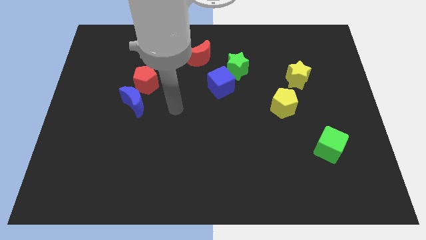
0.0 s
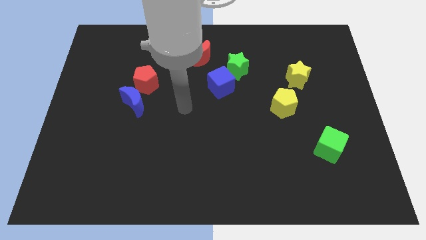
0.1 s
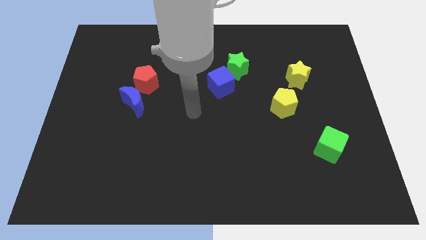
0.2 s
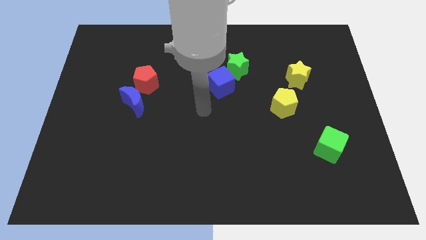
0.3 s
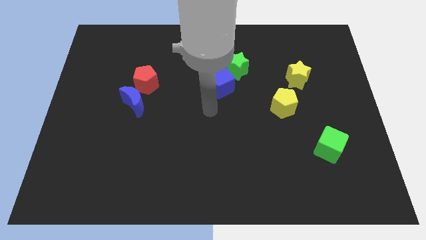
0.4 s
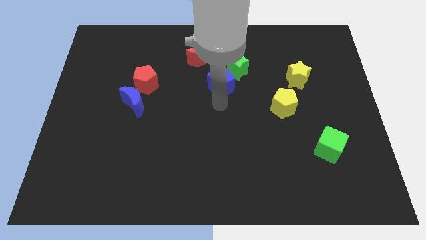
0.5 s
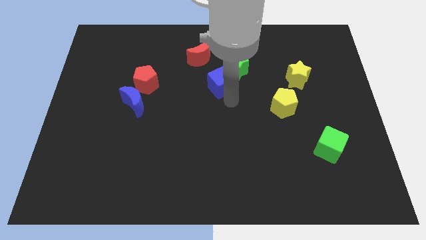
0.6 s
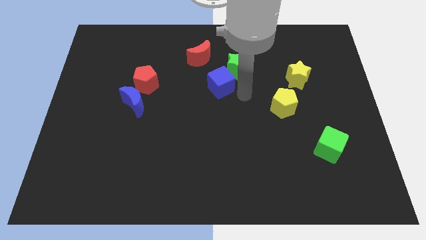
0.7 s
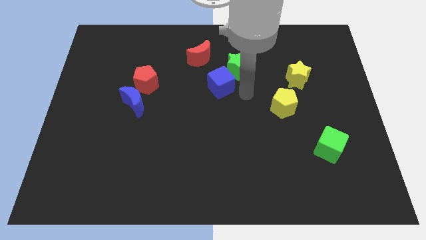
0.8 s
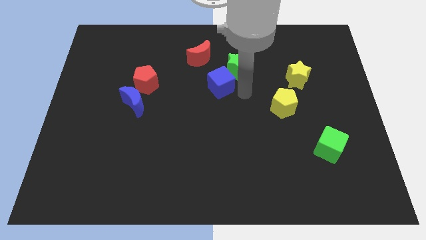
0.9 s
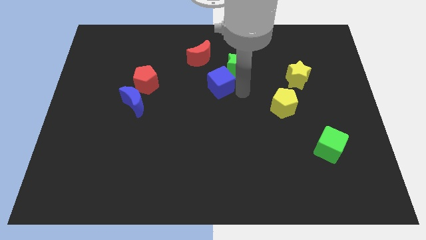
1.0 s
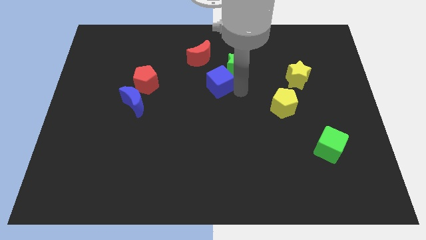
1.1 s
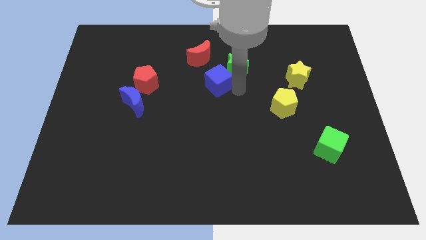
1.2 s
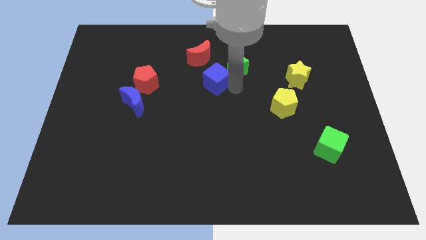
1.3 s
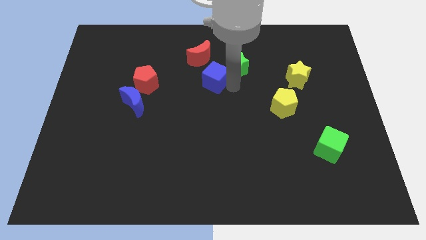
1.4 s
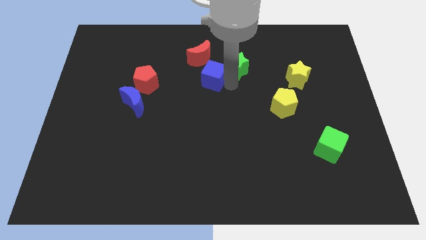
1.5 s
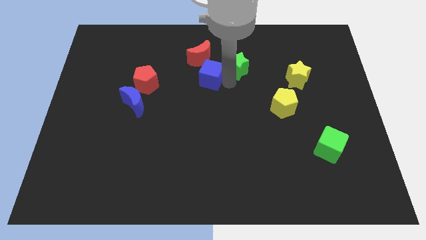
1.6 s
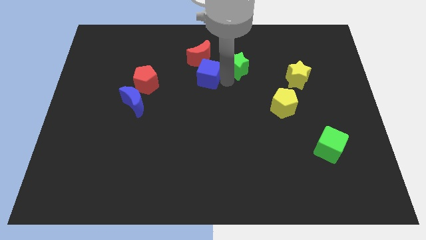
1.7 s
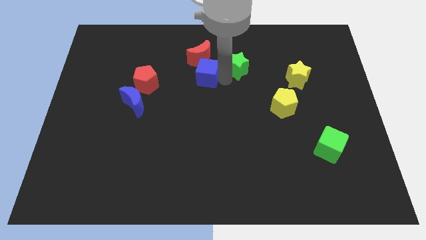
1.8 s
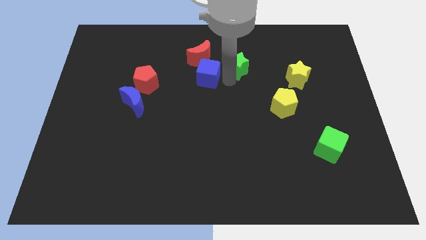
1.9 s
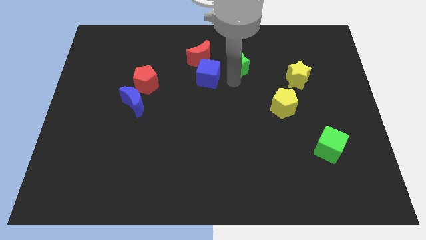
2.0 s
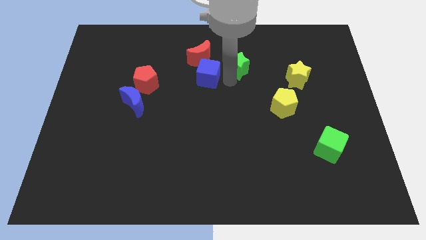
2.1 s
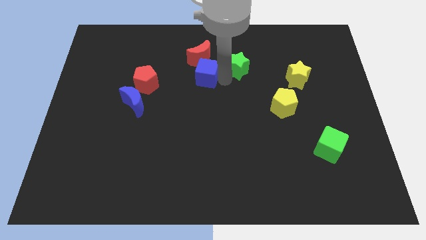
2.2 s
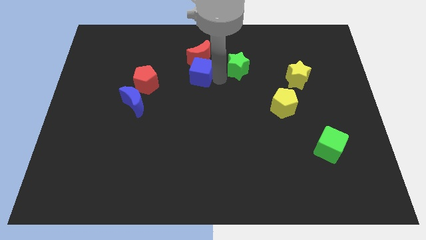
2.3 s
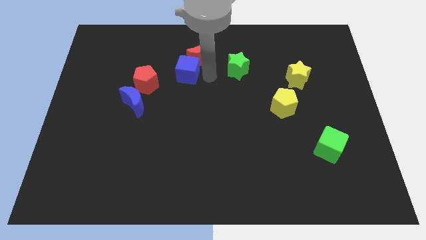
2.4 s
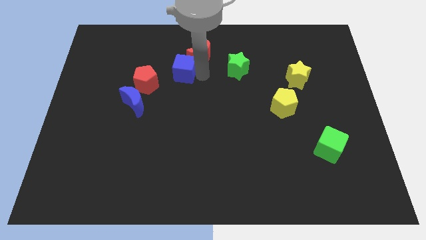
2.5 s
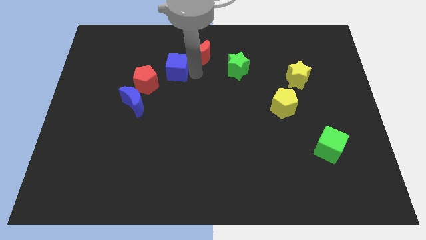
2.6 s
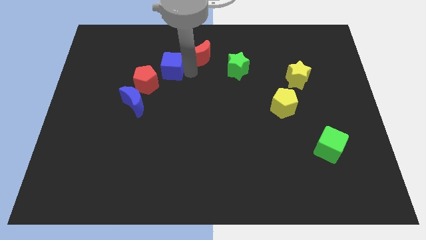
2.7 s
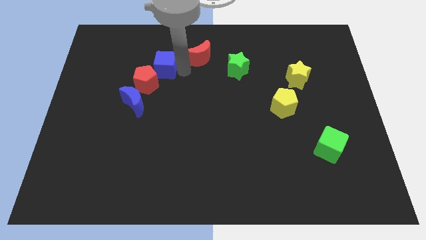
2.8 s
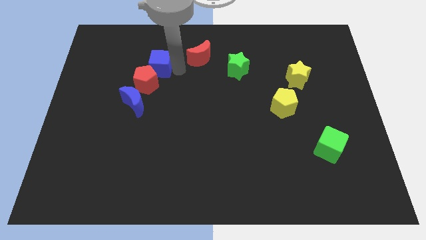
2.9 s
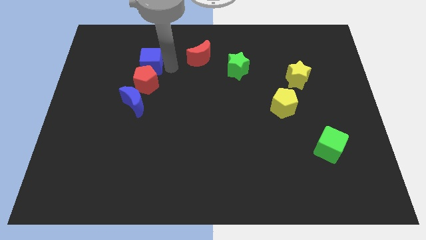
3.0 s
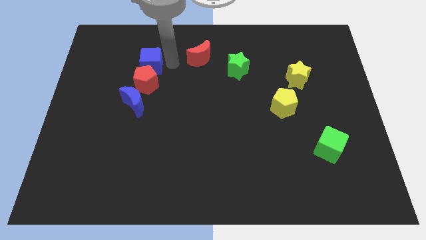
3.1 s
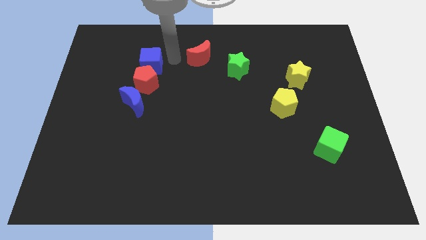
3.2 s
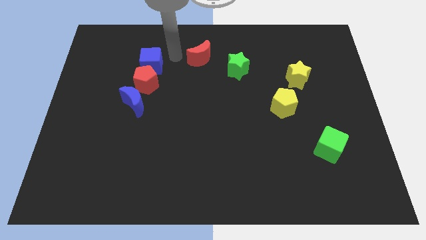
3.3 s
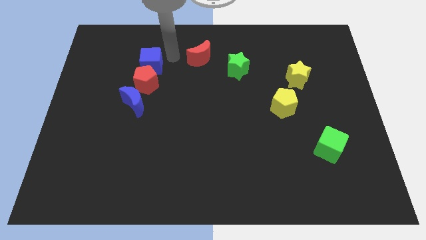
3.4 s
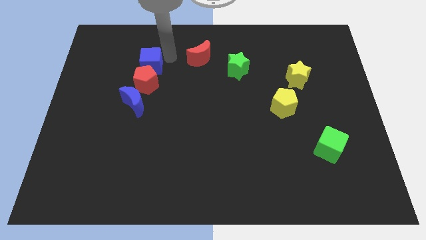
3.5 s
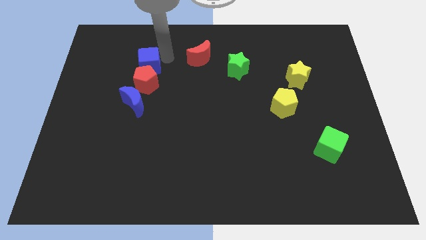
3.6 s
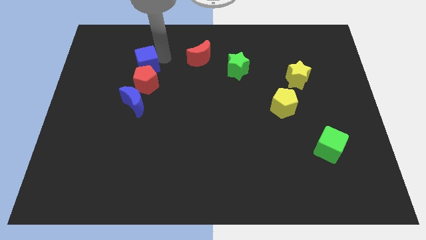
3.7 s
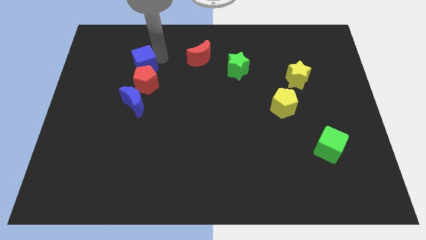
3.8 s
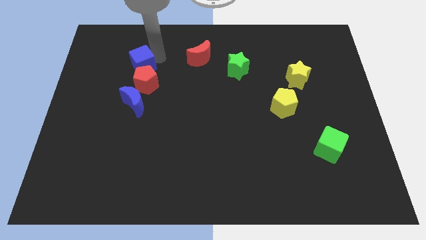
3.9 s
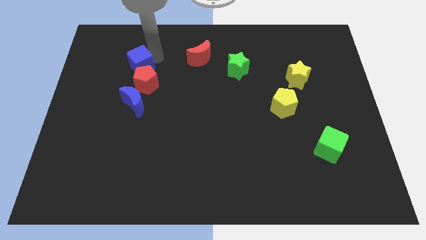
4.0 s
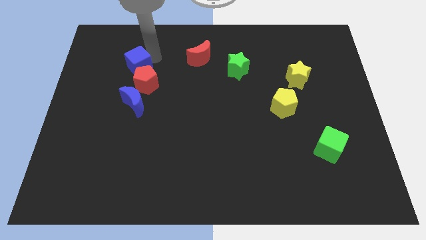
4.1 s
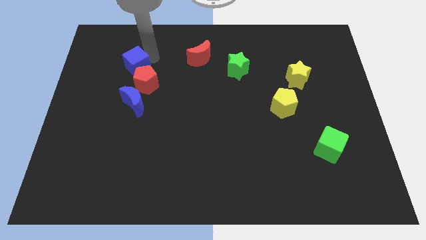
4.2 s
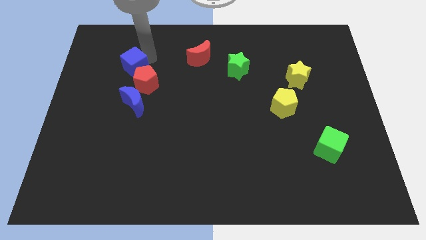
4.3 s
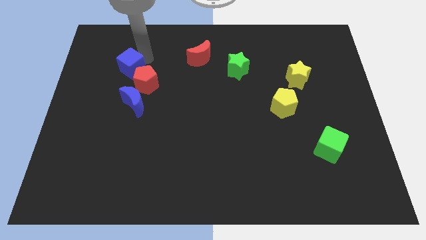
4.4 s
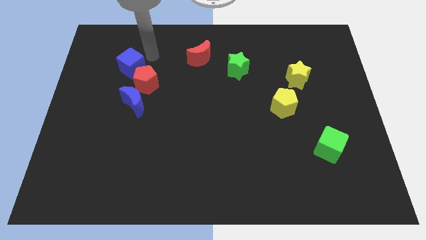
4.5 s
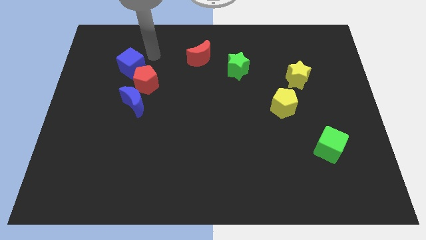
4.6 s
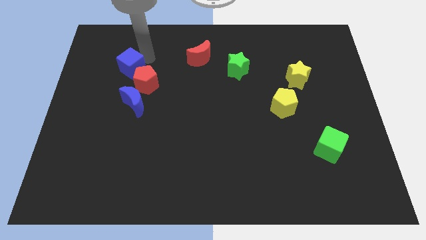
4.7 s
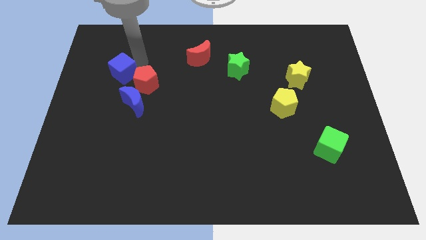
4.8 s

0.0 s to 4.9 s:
move the blue cube to the left side of the red pentagon

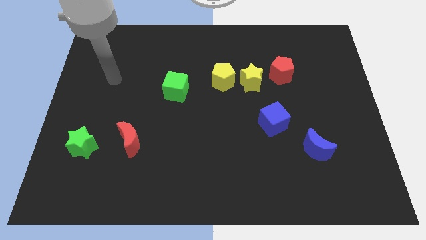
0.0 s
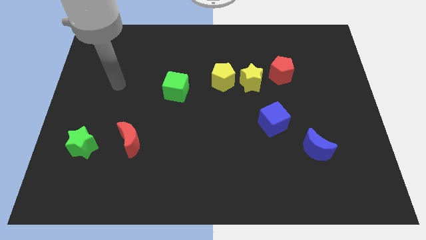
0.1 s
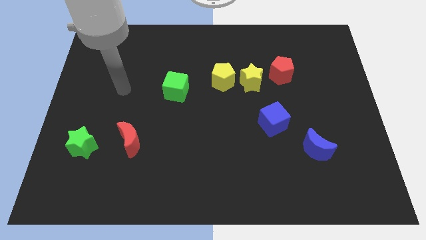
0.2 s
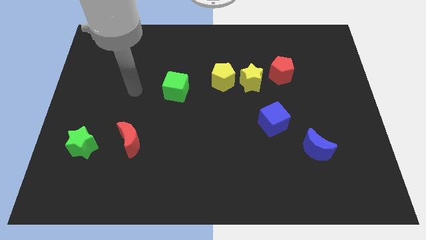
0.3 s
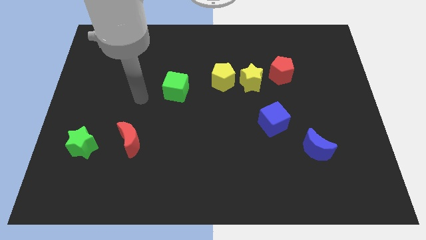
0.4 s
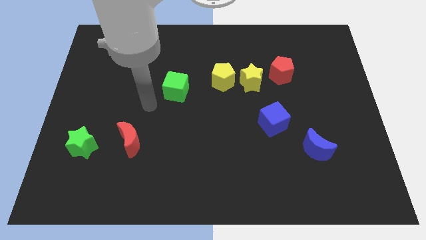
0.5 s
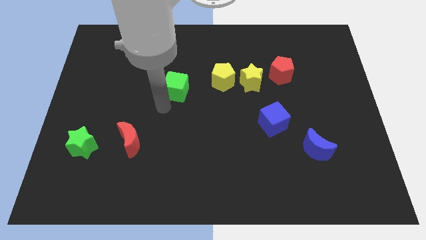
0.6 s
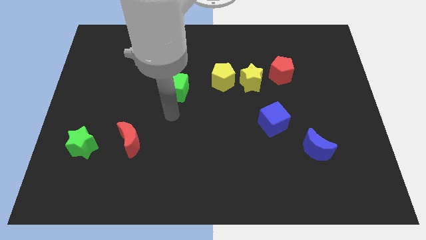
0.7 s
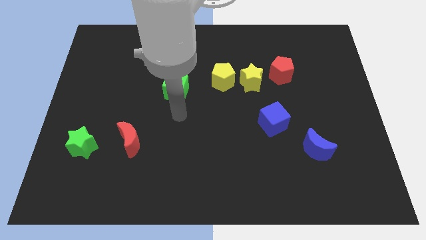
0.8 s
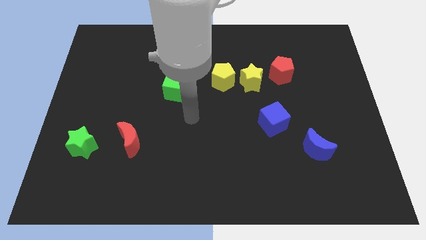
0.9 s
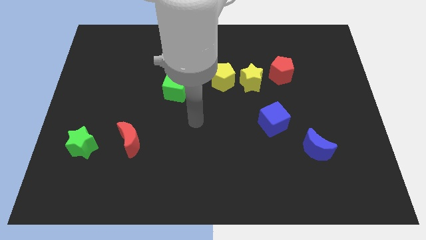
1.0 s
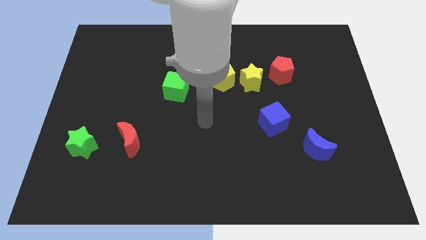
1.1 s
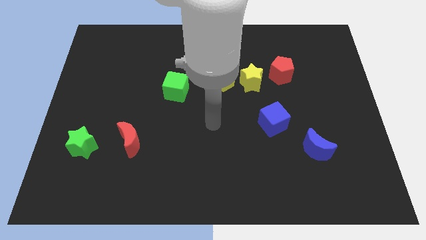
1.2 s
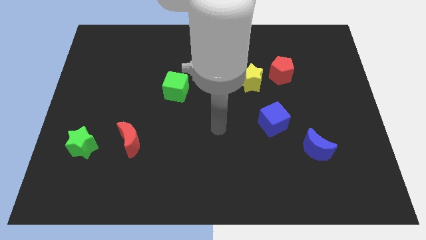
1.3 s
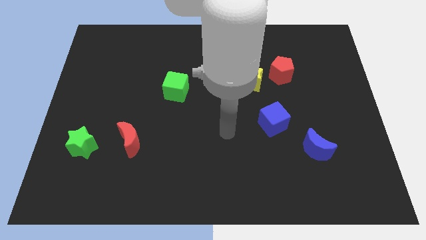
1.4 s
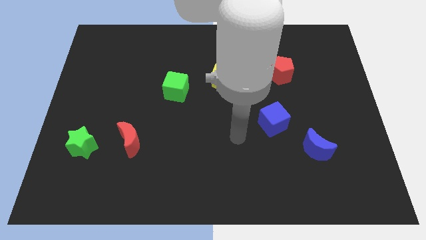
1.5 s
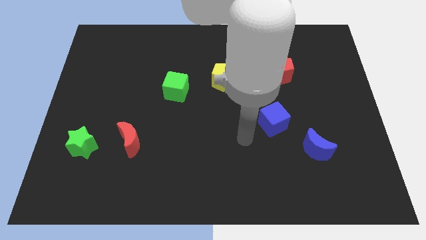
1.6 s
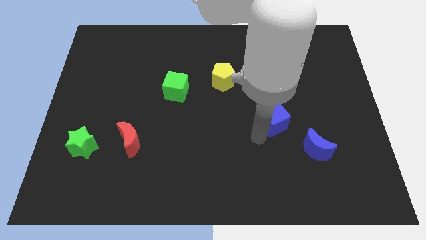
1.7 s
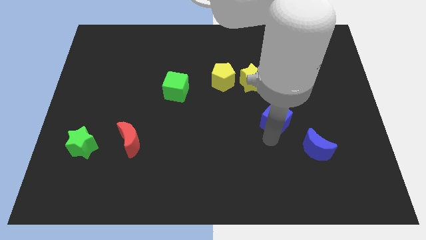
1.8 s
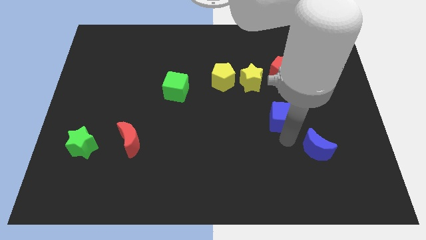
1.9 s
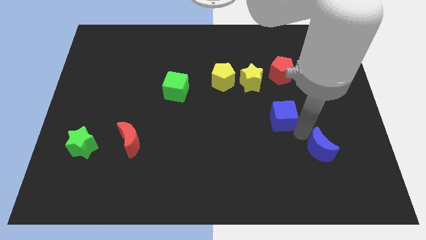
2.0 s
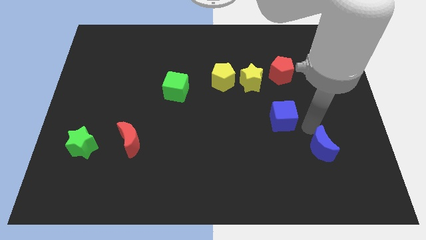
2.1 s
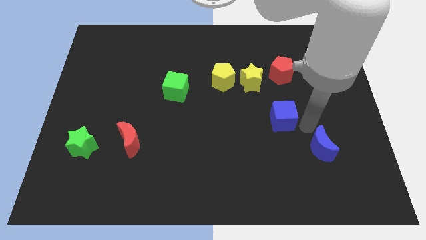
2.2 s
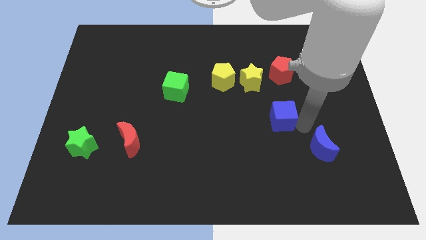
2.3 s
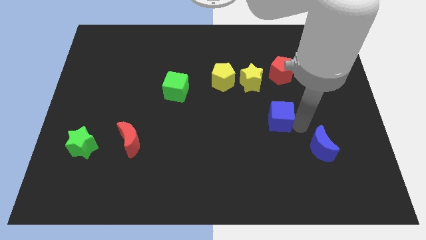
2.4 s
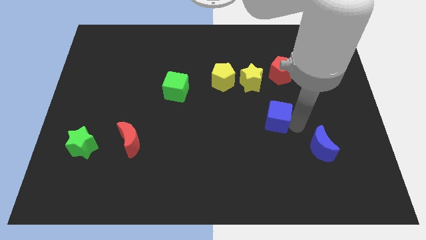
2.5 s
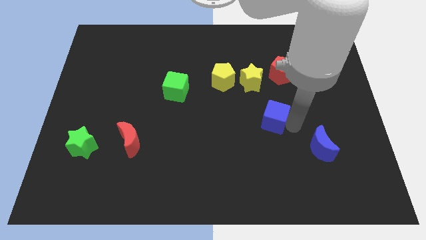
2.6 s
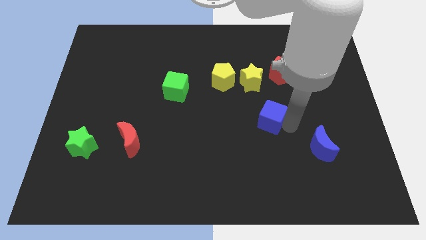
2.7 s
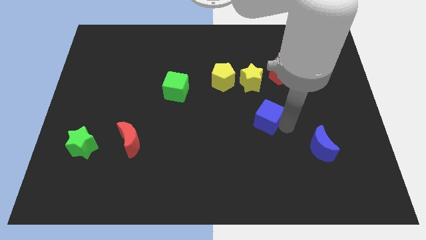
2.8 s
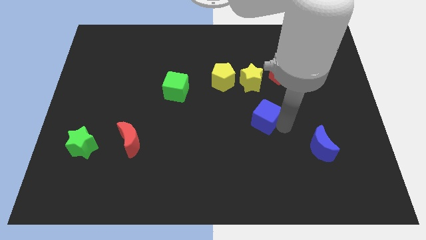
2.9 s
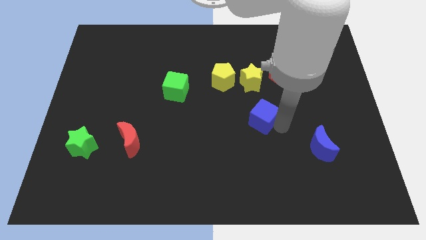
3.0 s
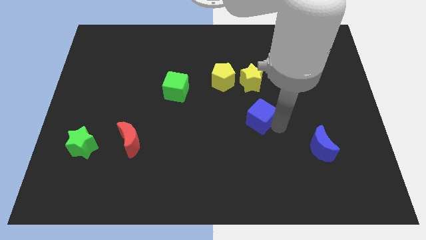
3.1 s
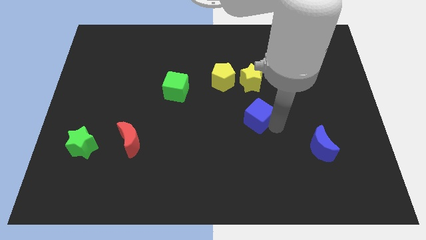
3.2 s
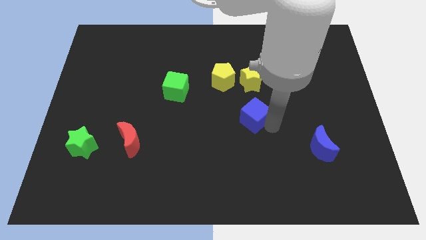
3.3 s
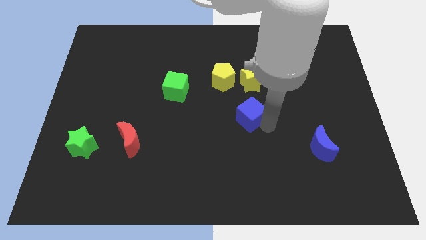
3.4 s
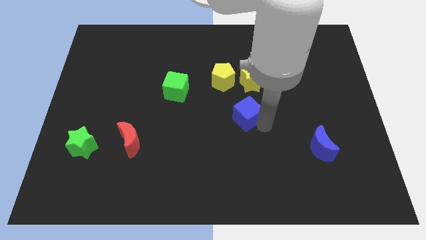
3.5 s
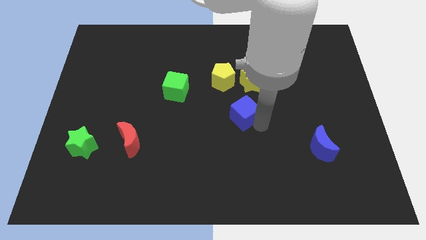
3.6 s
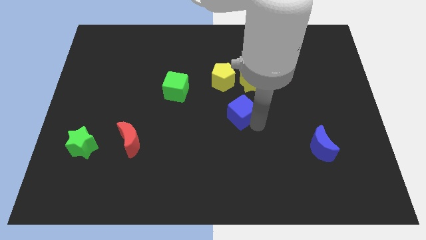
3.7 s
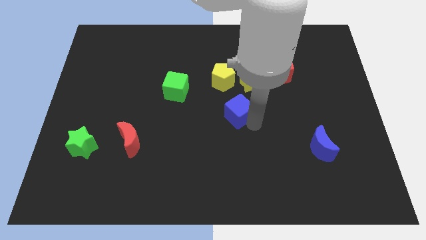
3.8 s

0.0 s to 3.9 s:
move the blue cube to the bottom left of the yellow star
